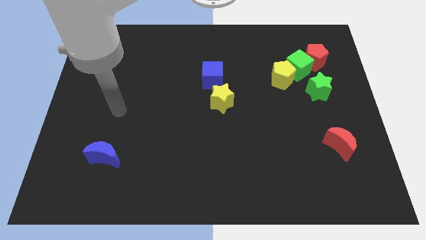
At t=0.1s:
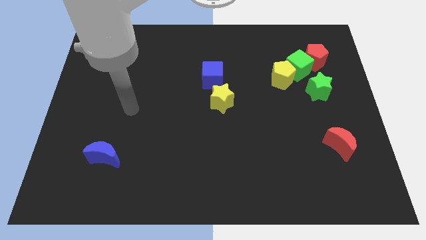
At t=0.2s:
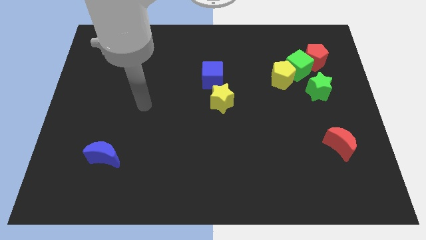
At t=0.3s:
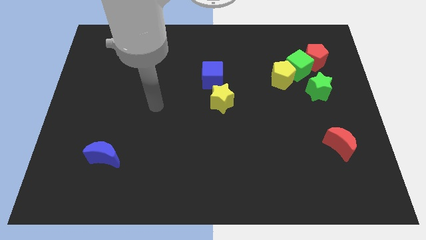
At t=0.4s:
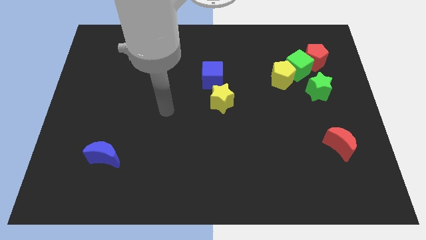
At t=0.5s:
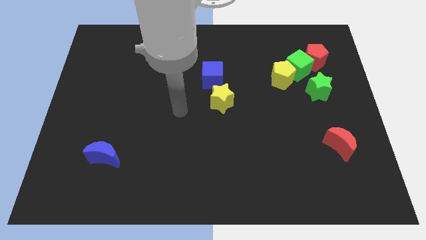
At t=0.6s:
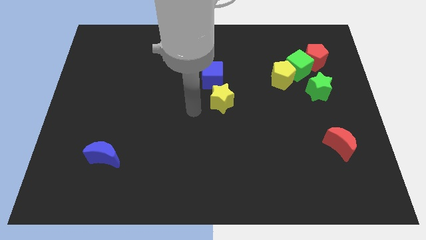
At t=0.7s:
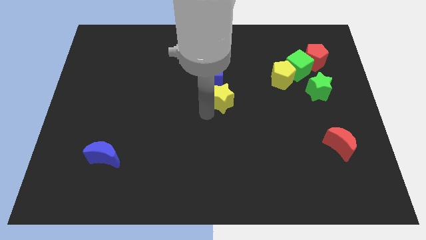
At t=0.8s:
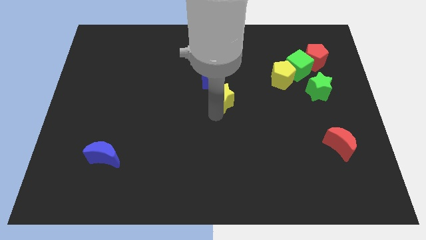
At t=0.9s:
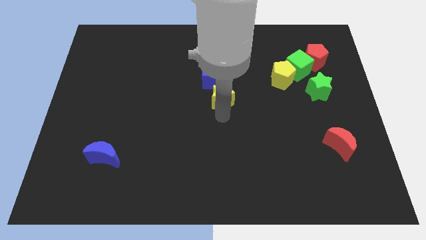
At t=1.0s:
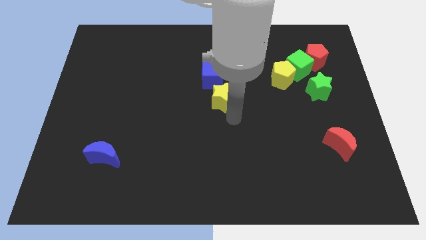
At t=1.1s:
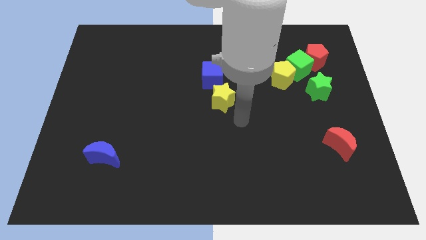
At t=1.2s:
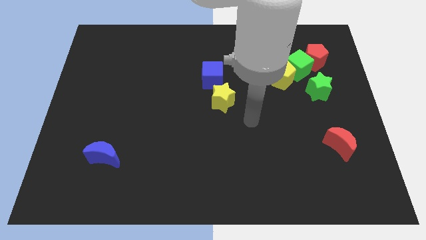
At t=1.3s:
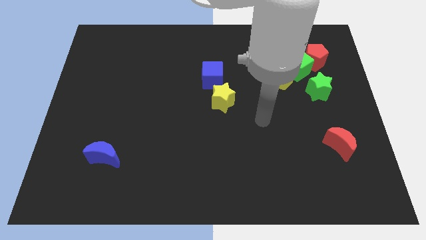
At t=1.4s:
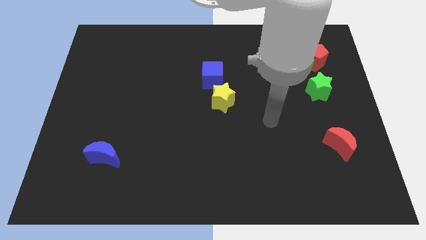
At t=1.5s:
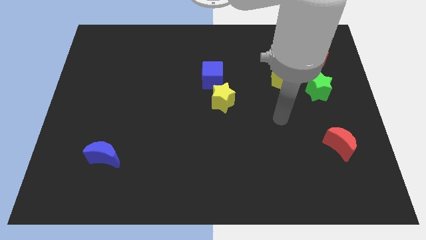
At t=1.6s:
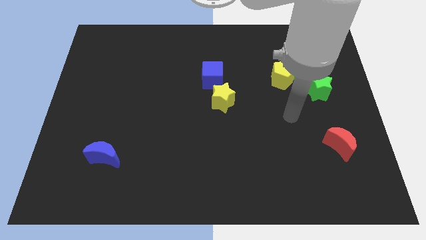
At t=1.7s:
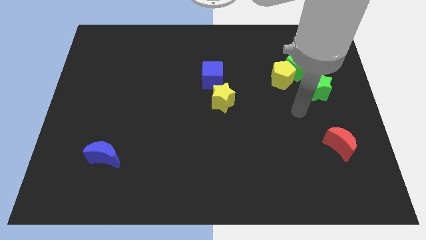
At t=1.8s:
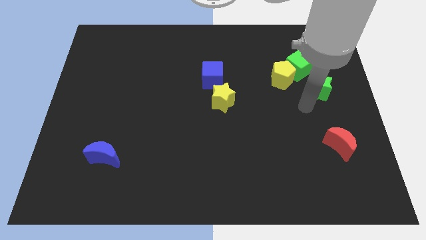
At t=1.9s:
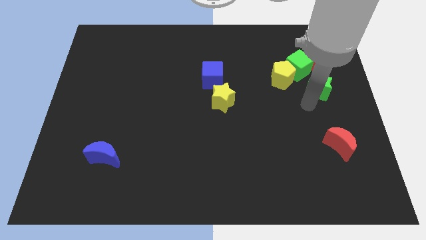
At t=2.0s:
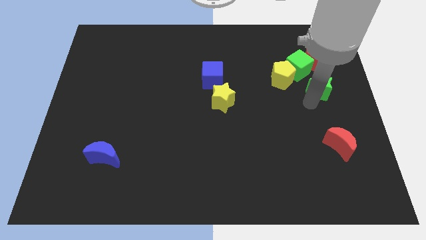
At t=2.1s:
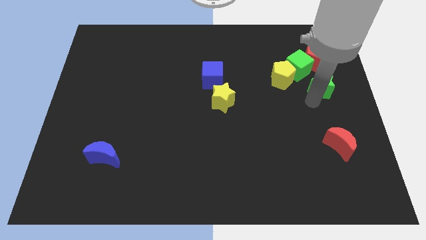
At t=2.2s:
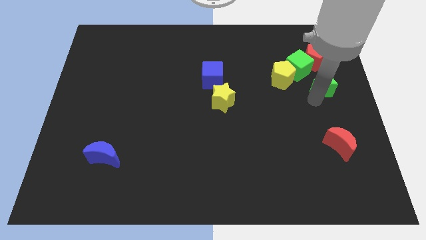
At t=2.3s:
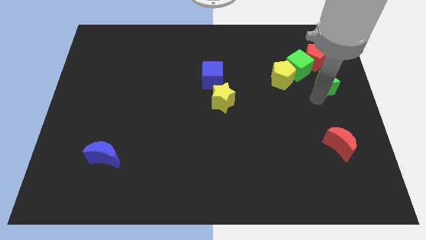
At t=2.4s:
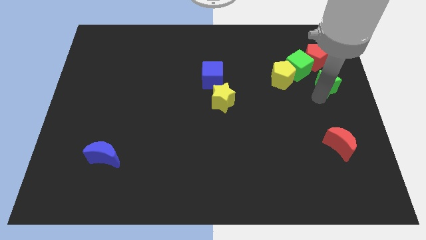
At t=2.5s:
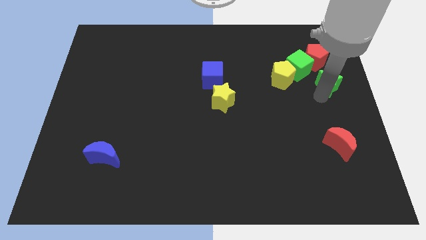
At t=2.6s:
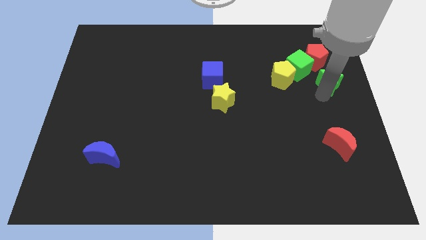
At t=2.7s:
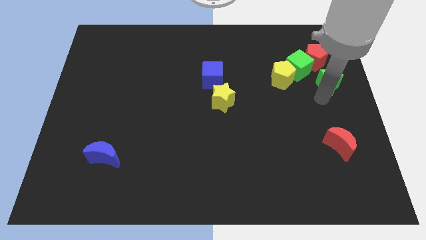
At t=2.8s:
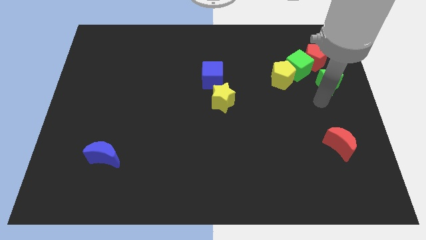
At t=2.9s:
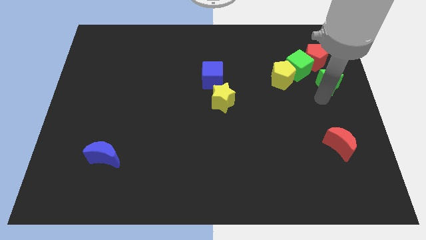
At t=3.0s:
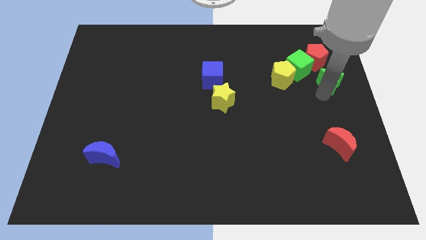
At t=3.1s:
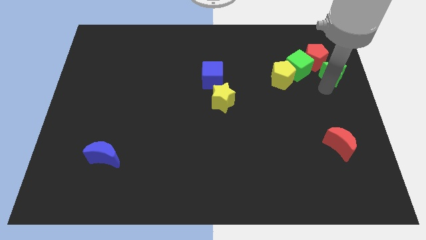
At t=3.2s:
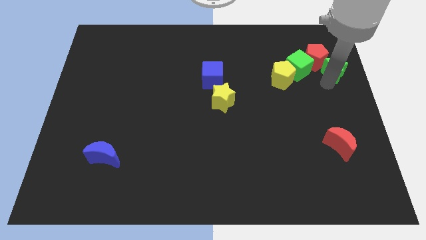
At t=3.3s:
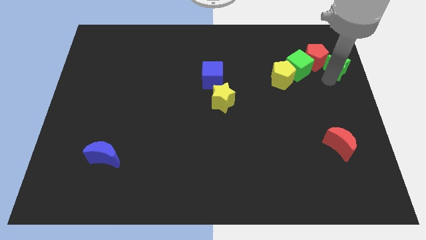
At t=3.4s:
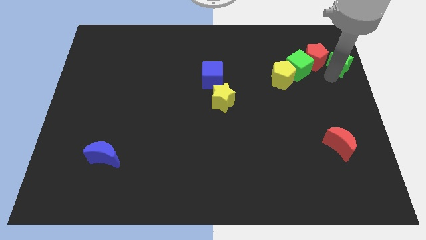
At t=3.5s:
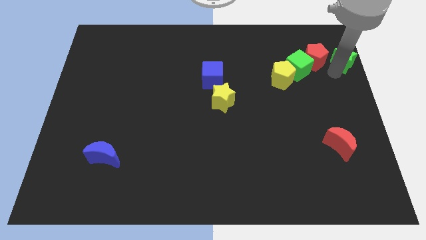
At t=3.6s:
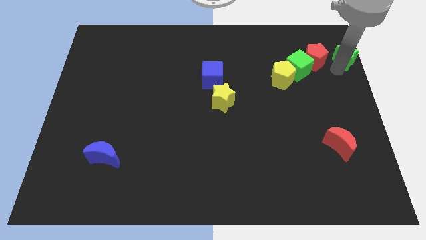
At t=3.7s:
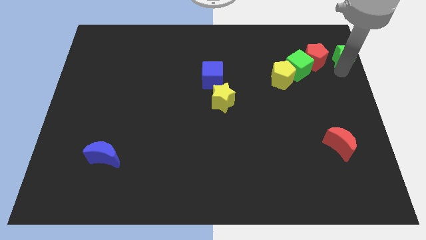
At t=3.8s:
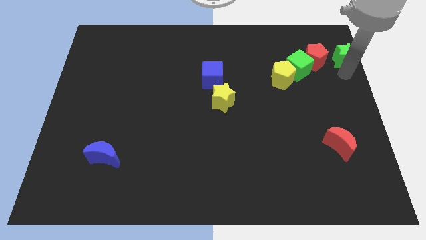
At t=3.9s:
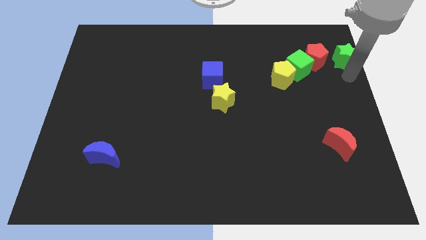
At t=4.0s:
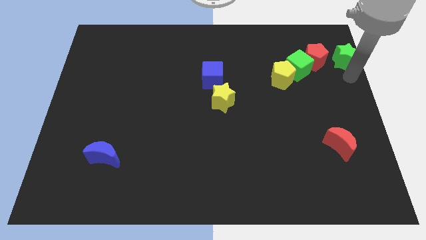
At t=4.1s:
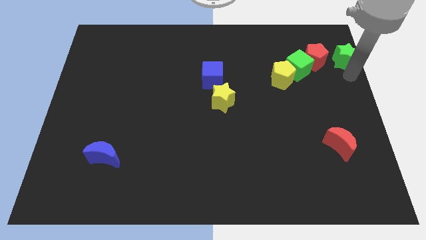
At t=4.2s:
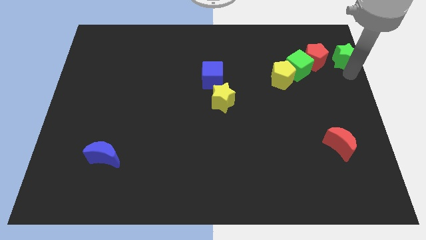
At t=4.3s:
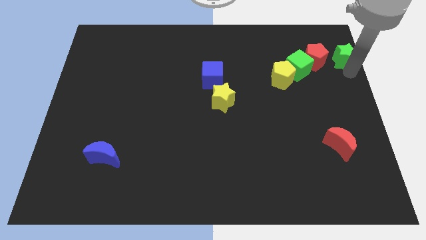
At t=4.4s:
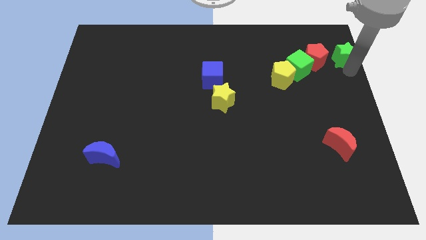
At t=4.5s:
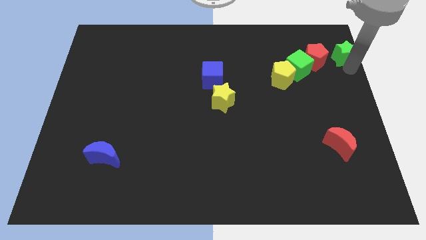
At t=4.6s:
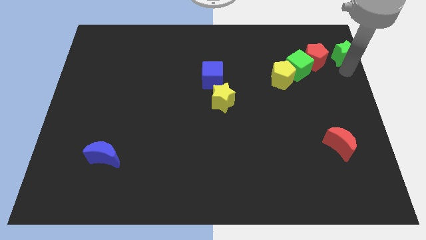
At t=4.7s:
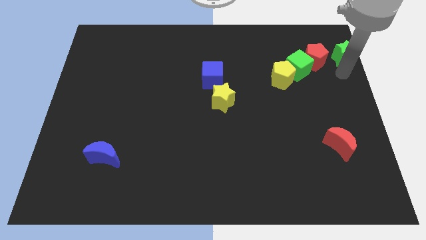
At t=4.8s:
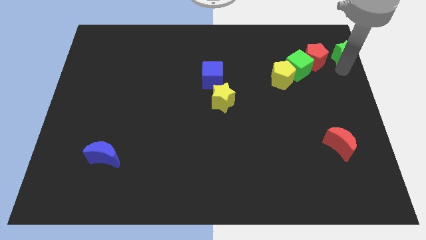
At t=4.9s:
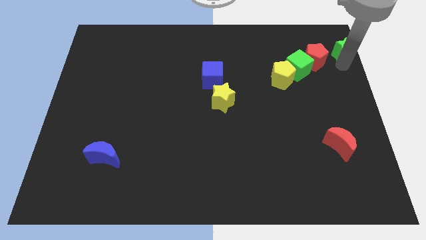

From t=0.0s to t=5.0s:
push the green star to the top right of the board

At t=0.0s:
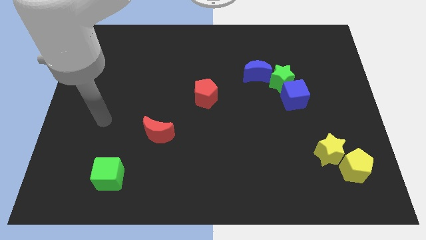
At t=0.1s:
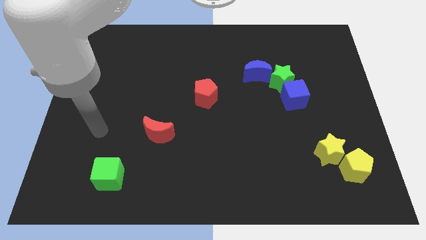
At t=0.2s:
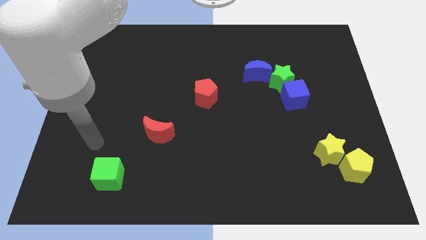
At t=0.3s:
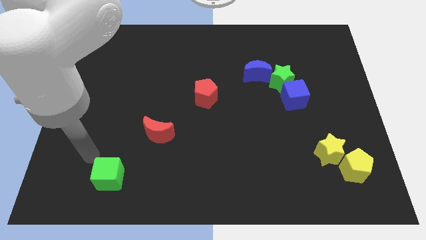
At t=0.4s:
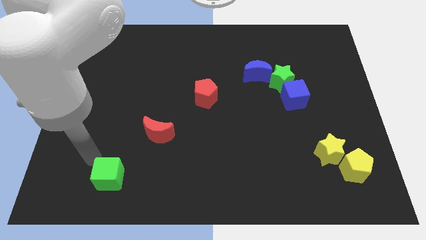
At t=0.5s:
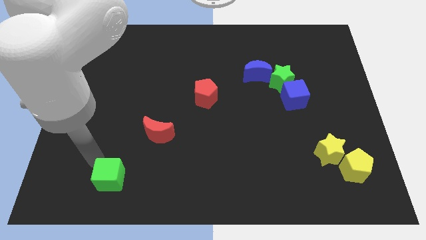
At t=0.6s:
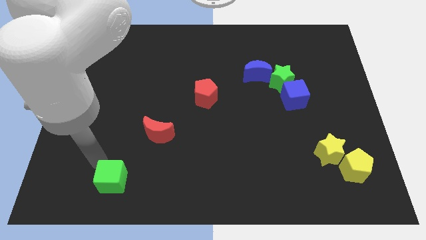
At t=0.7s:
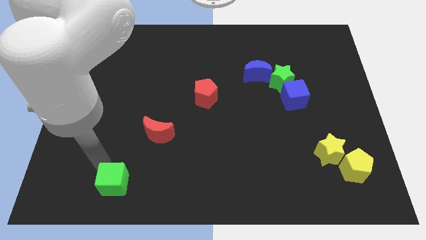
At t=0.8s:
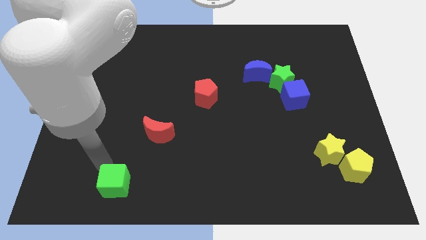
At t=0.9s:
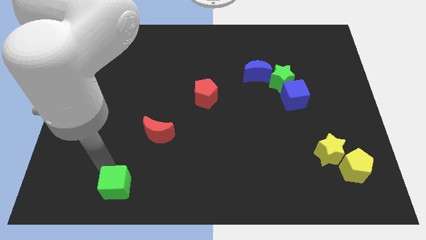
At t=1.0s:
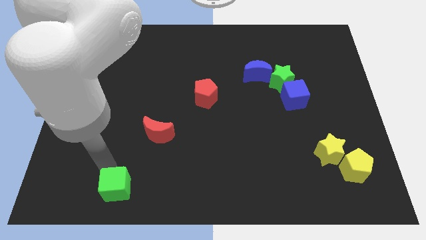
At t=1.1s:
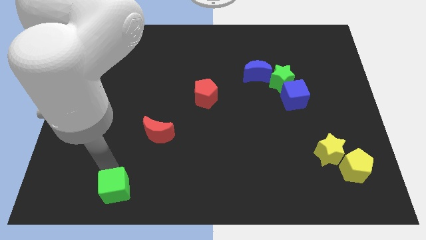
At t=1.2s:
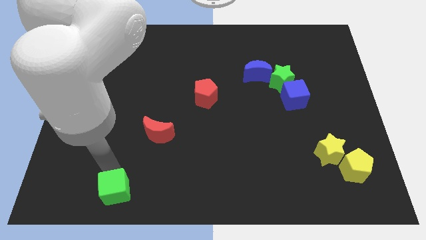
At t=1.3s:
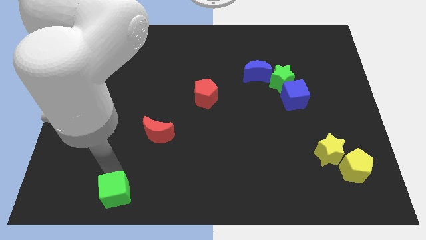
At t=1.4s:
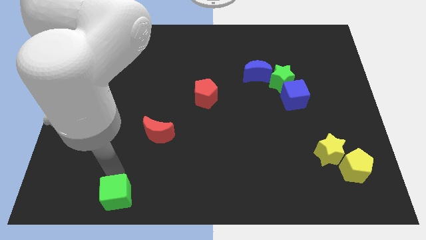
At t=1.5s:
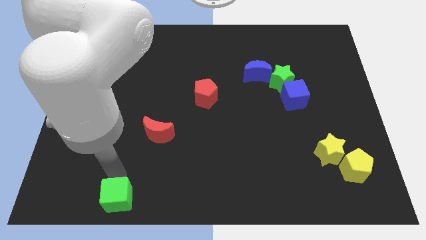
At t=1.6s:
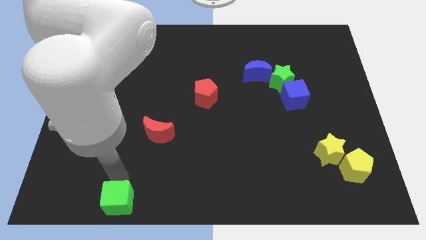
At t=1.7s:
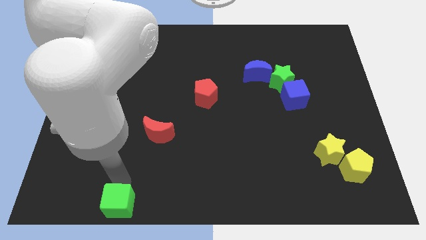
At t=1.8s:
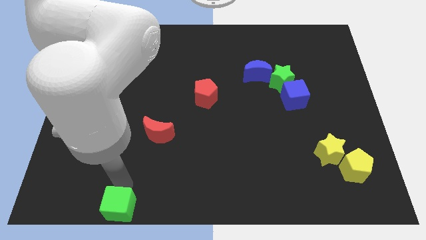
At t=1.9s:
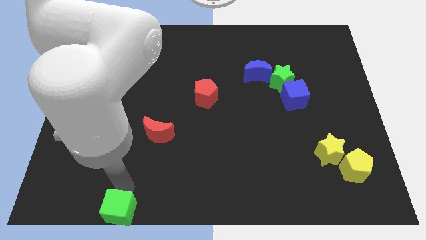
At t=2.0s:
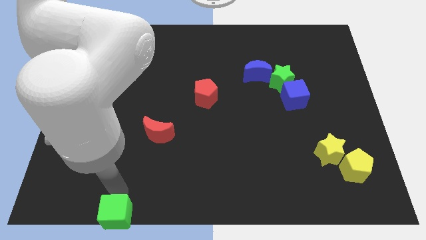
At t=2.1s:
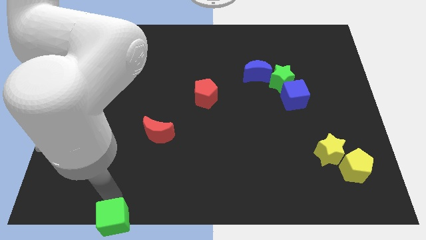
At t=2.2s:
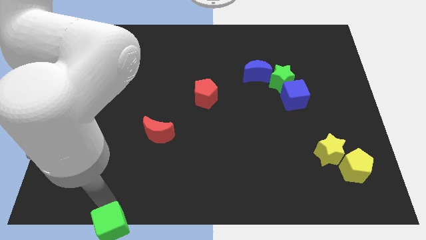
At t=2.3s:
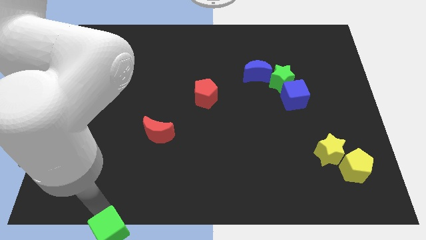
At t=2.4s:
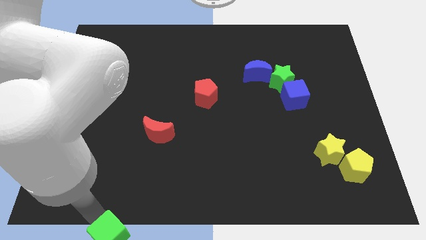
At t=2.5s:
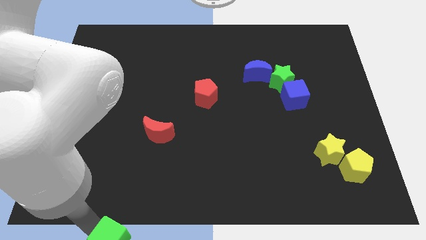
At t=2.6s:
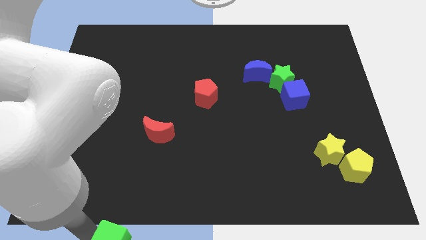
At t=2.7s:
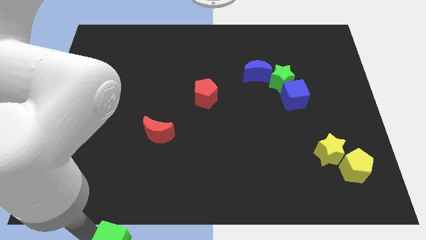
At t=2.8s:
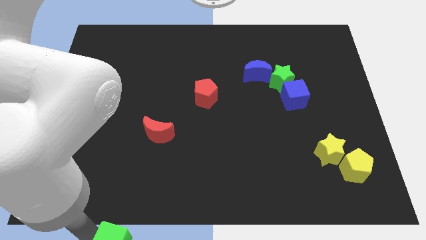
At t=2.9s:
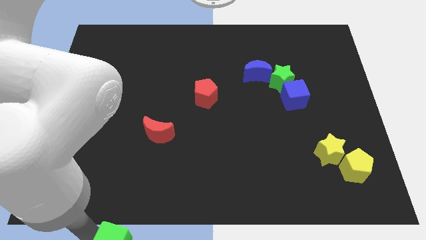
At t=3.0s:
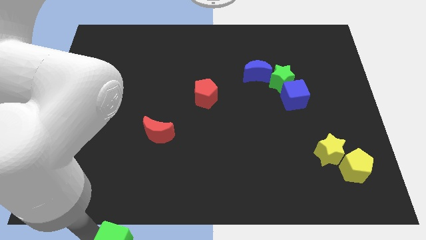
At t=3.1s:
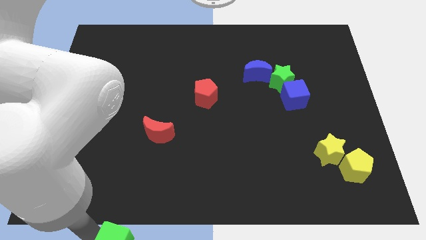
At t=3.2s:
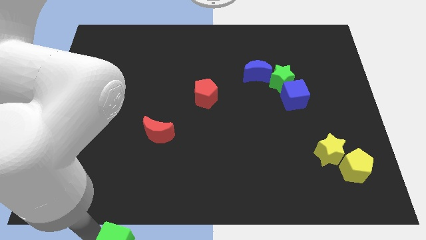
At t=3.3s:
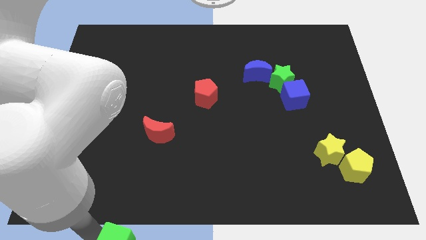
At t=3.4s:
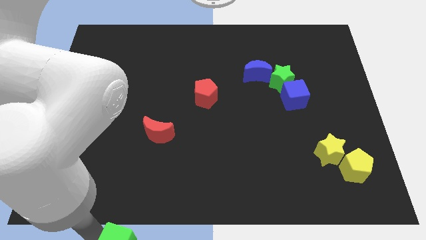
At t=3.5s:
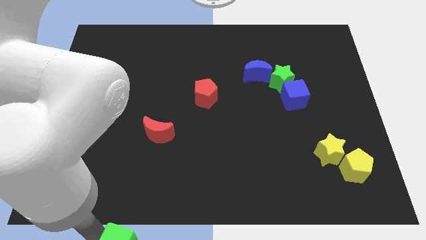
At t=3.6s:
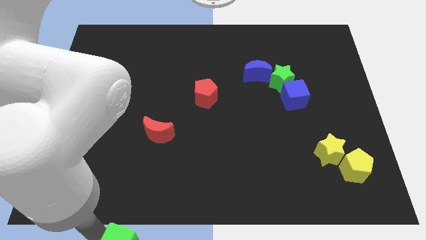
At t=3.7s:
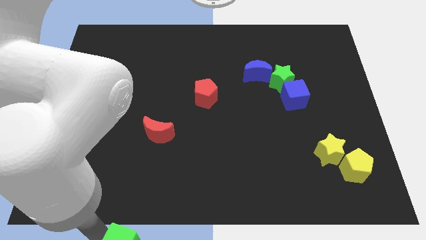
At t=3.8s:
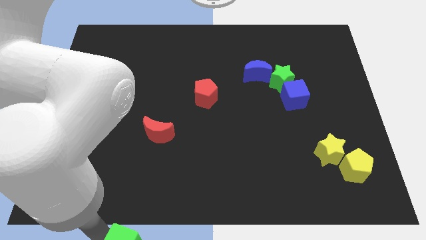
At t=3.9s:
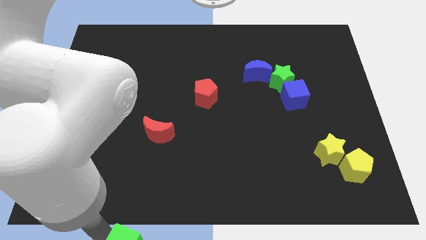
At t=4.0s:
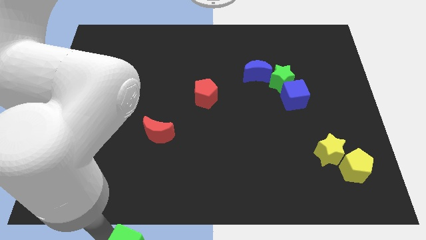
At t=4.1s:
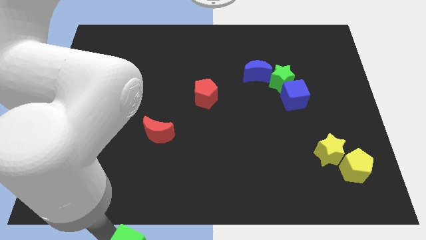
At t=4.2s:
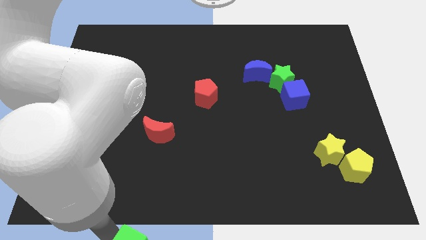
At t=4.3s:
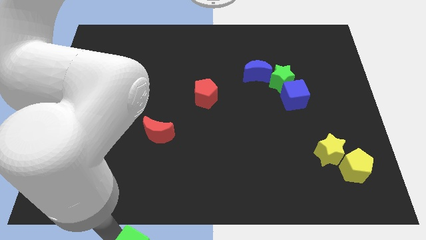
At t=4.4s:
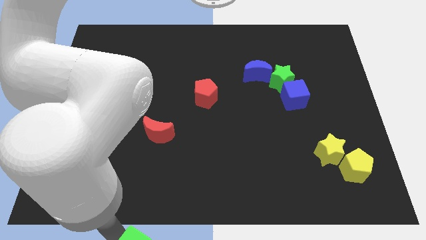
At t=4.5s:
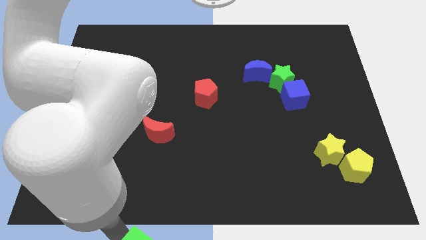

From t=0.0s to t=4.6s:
push the green cube to the bottom
